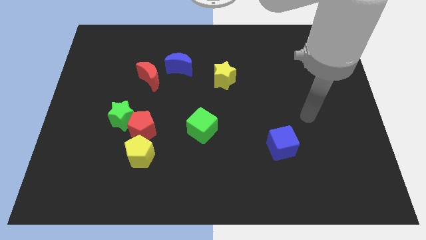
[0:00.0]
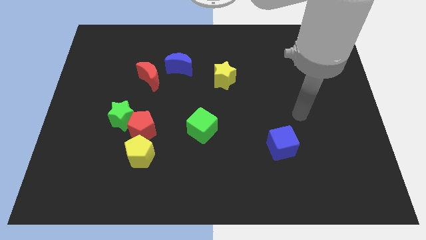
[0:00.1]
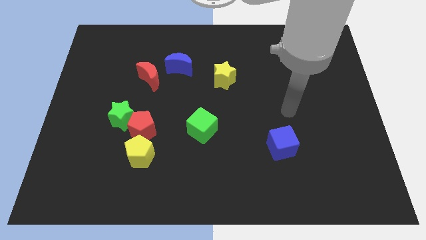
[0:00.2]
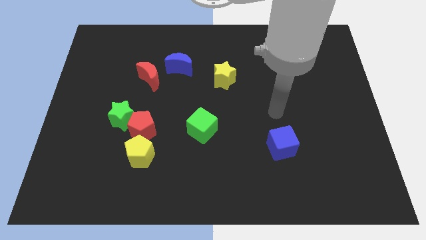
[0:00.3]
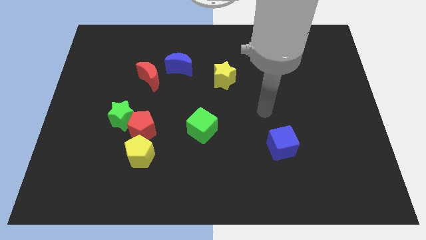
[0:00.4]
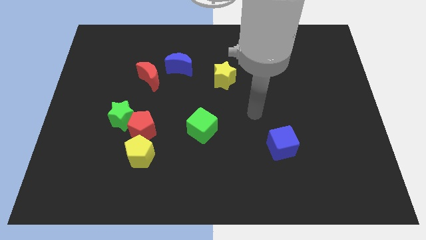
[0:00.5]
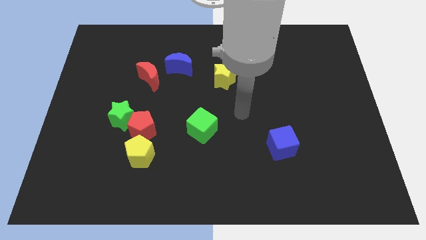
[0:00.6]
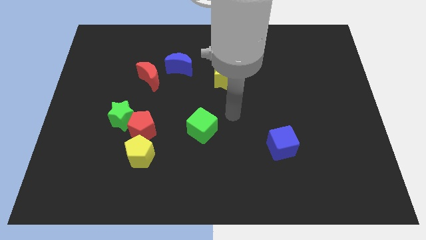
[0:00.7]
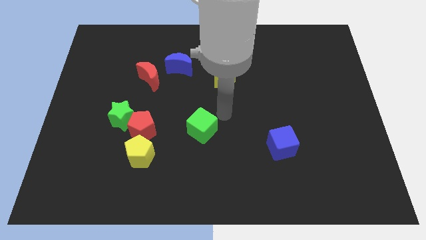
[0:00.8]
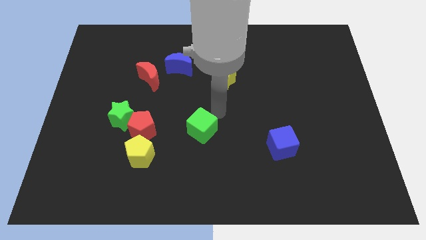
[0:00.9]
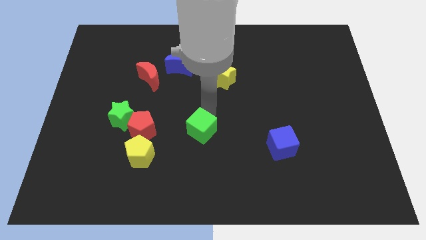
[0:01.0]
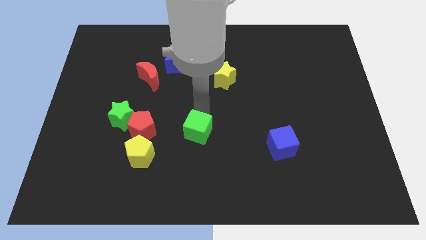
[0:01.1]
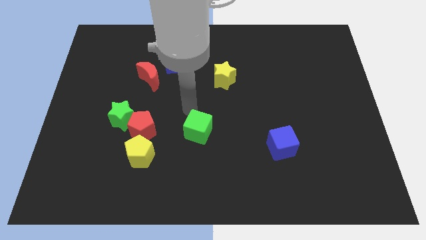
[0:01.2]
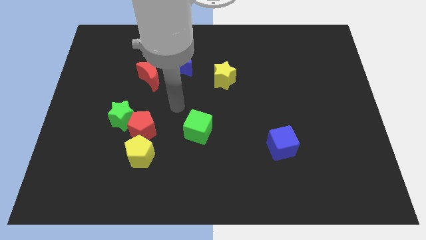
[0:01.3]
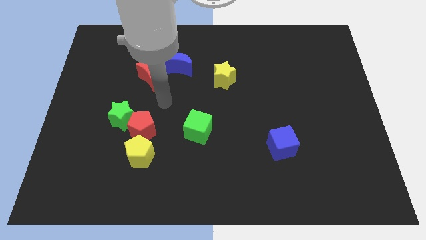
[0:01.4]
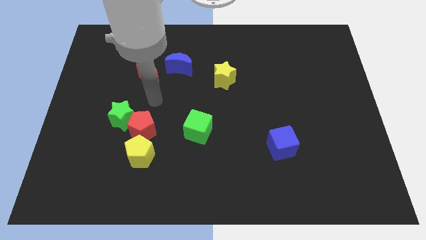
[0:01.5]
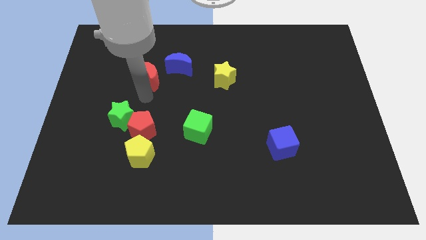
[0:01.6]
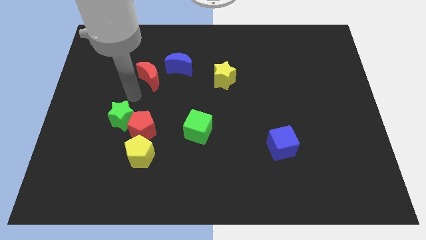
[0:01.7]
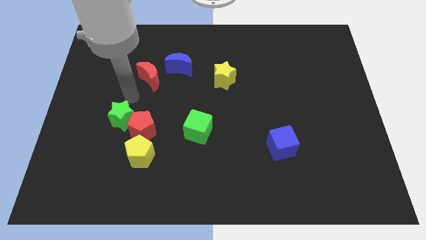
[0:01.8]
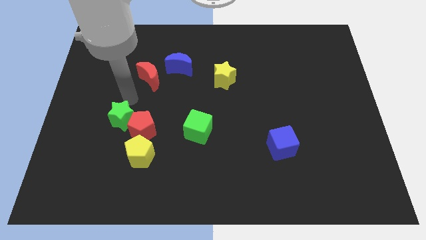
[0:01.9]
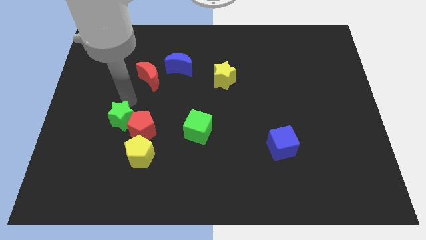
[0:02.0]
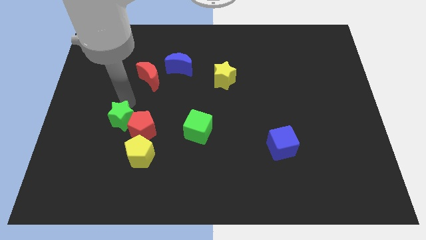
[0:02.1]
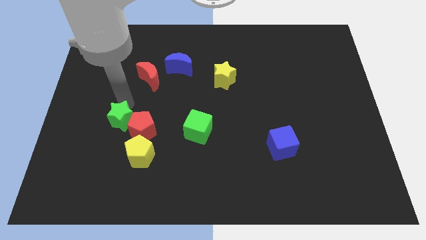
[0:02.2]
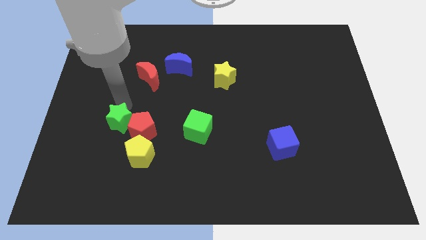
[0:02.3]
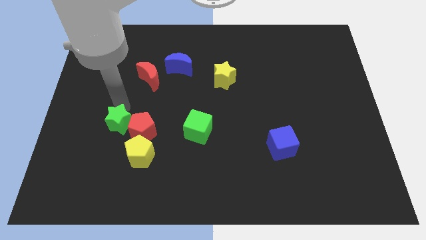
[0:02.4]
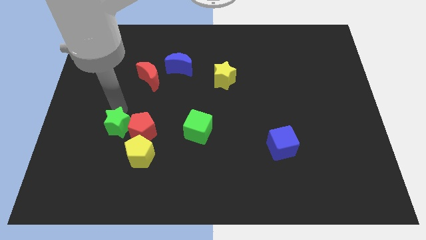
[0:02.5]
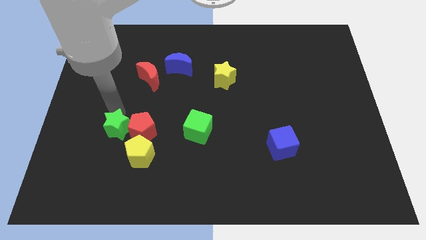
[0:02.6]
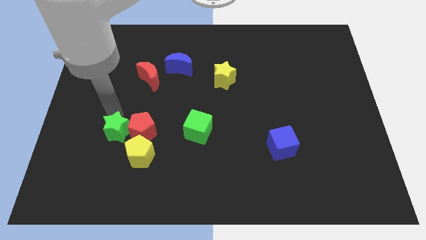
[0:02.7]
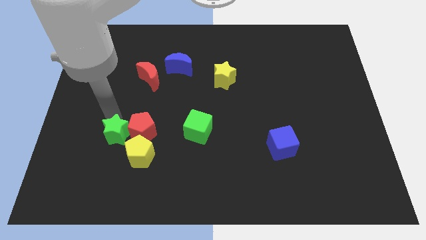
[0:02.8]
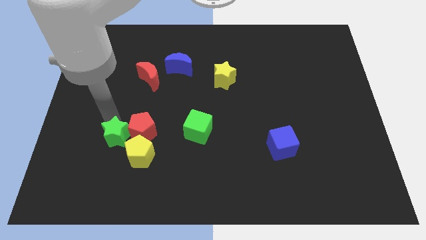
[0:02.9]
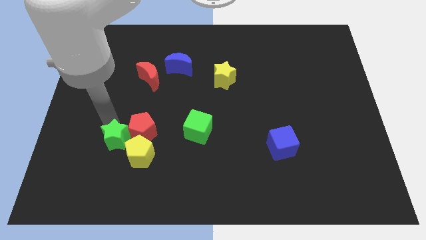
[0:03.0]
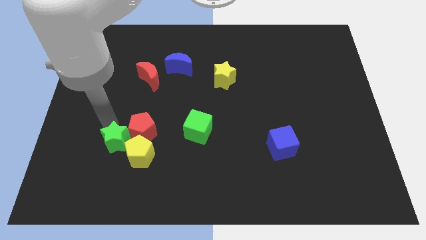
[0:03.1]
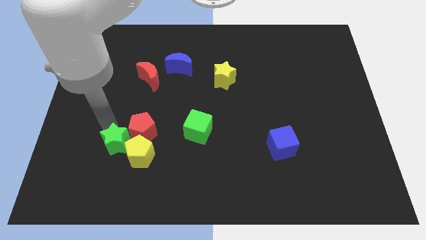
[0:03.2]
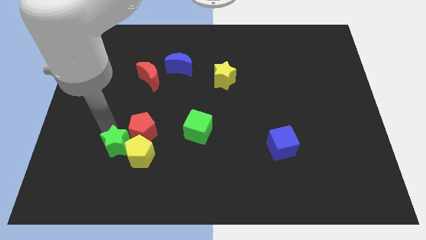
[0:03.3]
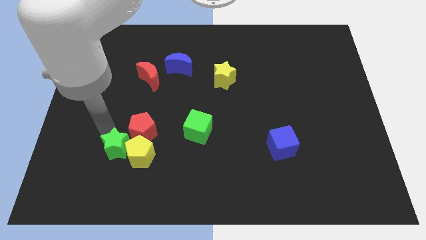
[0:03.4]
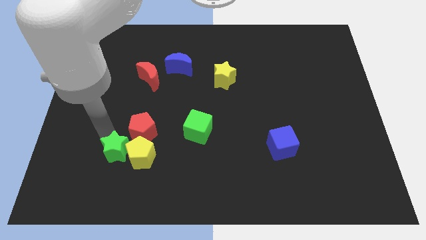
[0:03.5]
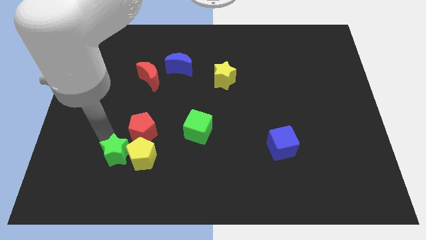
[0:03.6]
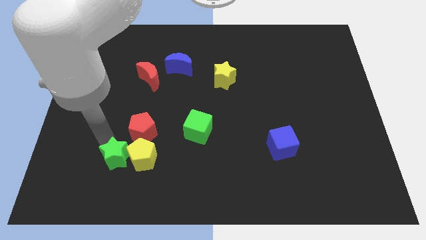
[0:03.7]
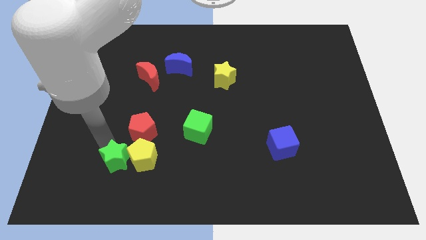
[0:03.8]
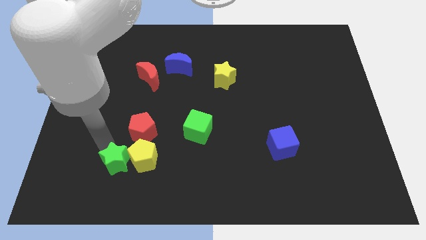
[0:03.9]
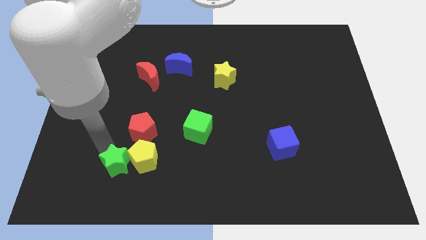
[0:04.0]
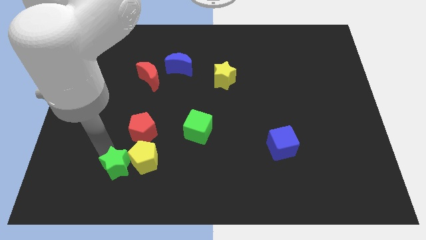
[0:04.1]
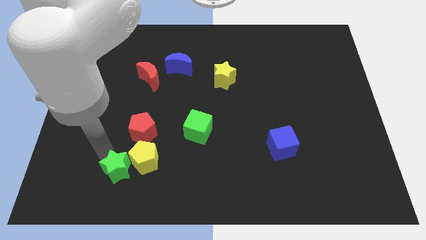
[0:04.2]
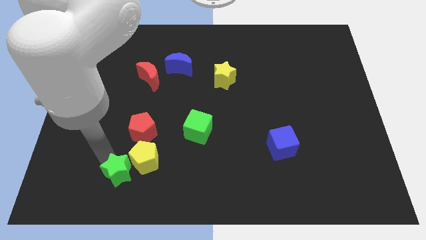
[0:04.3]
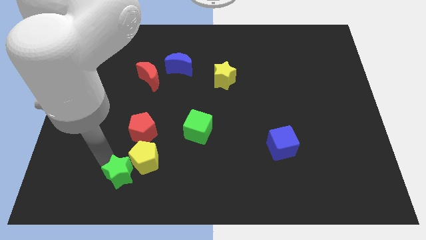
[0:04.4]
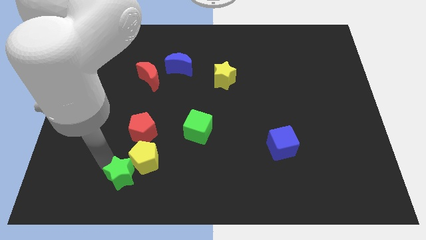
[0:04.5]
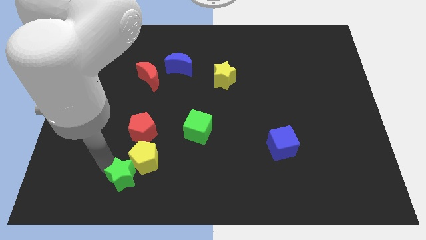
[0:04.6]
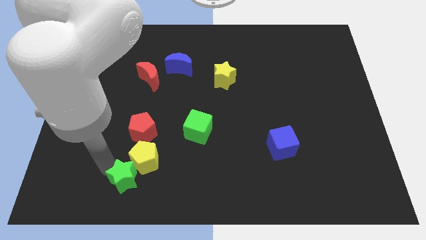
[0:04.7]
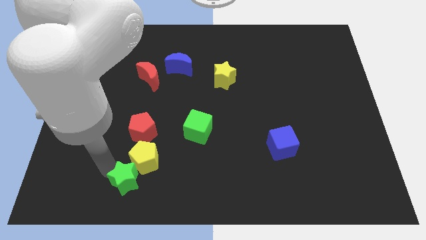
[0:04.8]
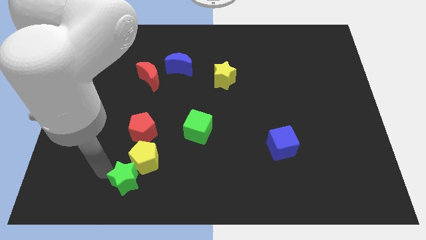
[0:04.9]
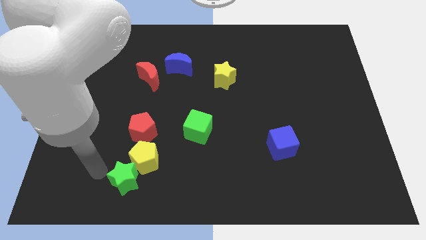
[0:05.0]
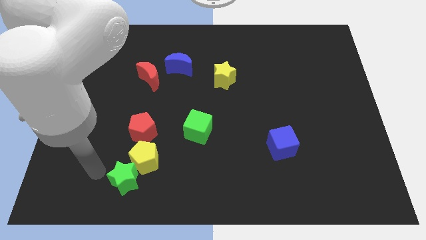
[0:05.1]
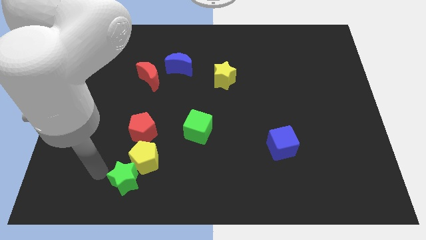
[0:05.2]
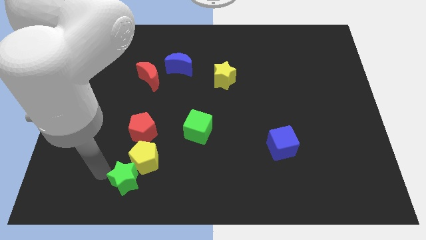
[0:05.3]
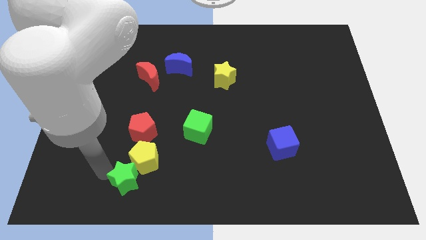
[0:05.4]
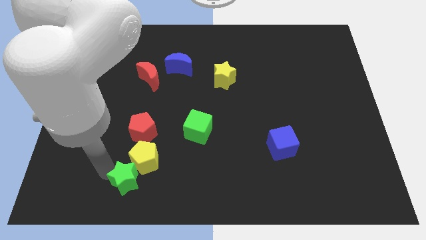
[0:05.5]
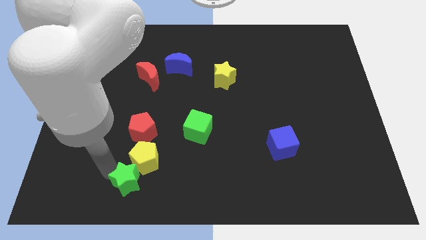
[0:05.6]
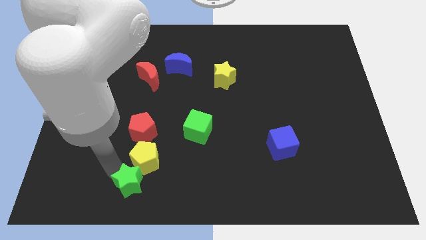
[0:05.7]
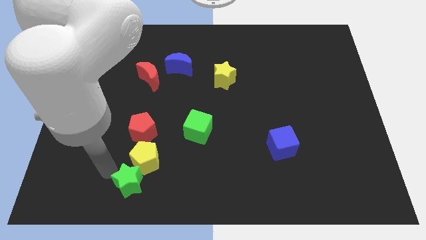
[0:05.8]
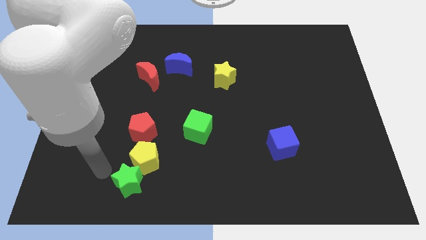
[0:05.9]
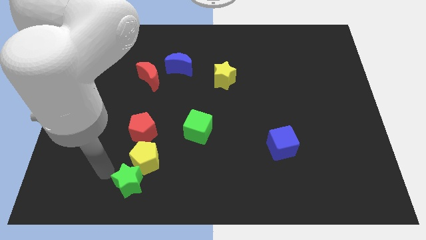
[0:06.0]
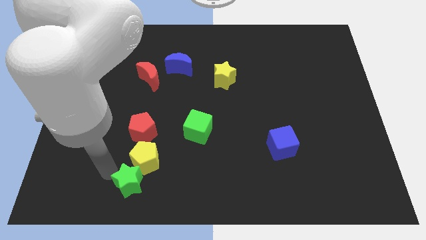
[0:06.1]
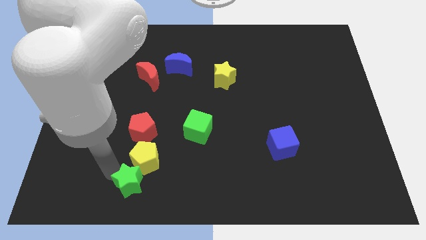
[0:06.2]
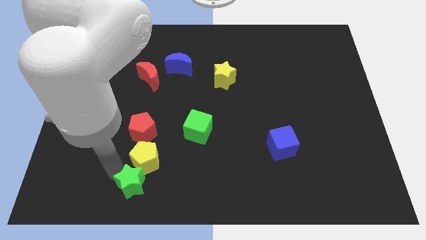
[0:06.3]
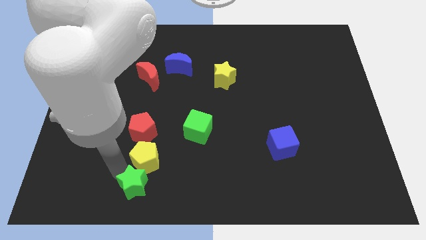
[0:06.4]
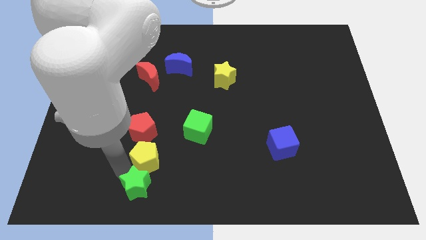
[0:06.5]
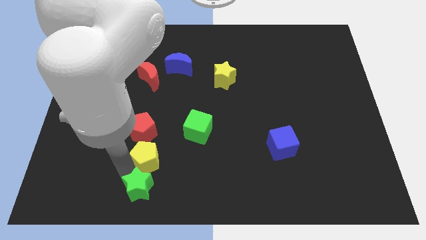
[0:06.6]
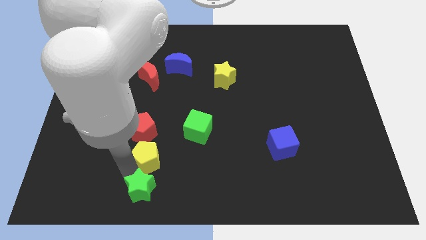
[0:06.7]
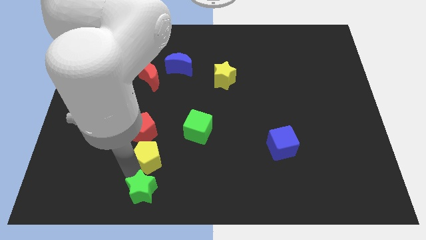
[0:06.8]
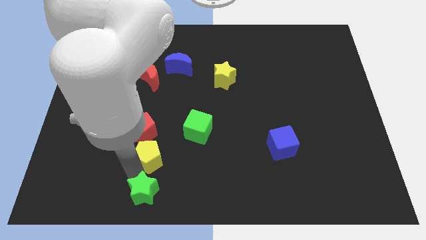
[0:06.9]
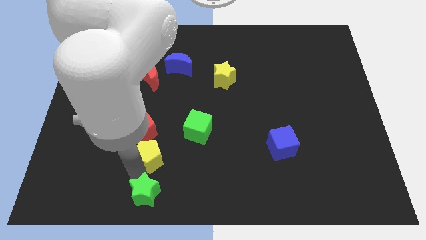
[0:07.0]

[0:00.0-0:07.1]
put the green star to the bottom side
